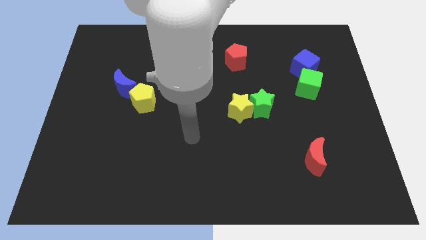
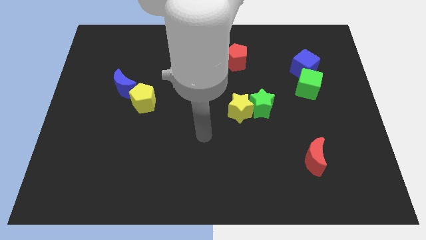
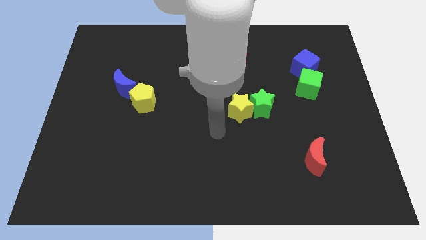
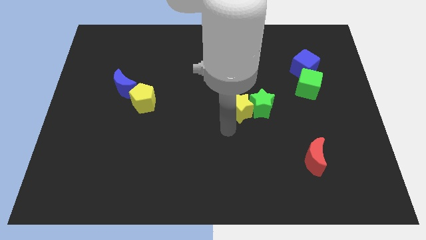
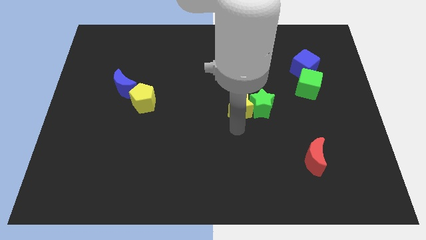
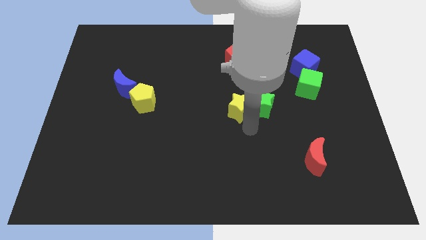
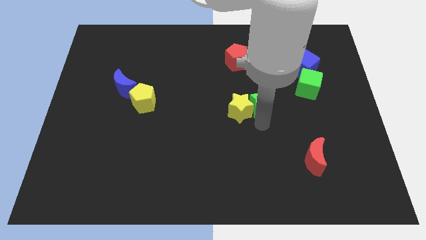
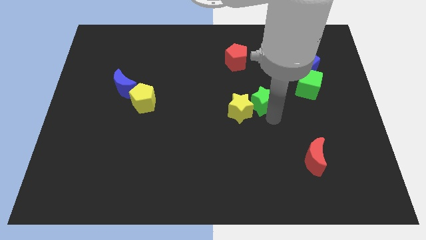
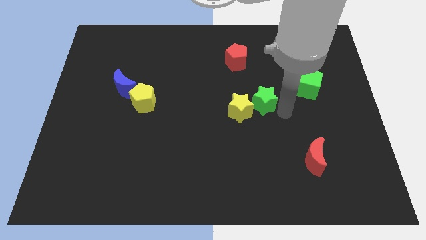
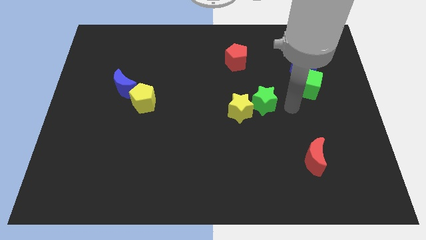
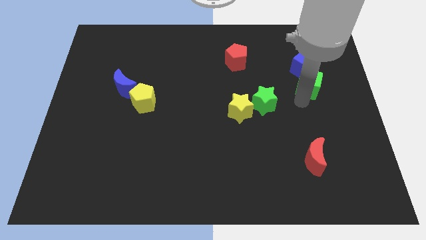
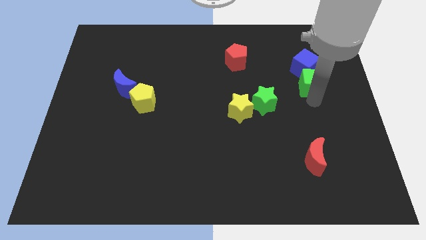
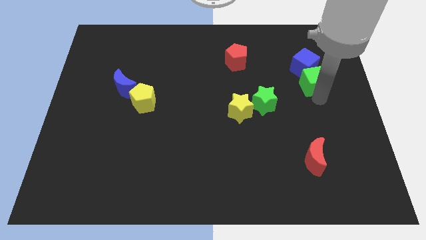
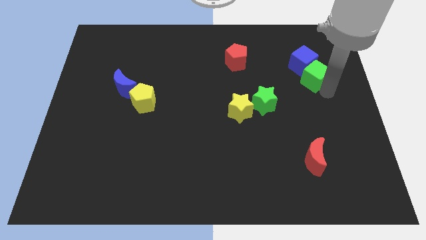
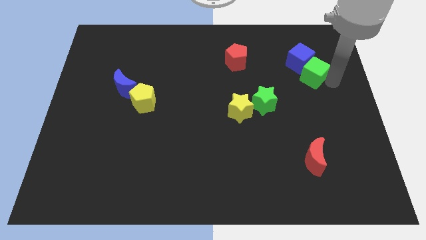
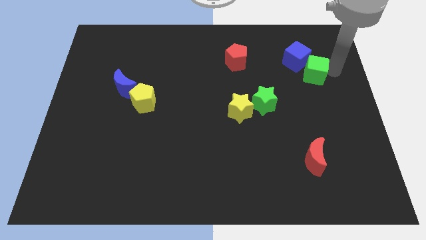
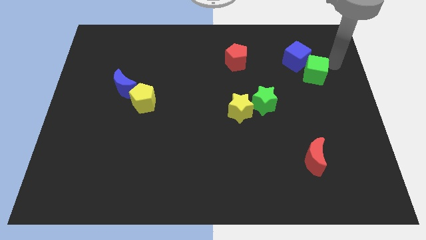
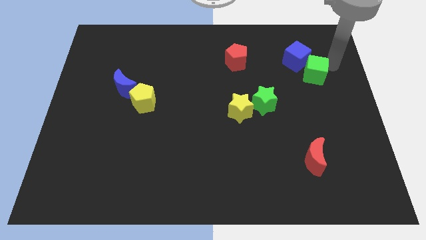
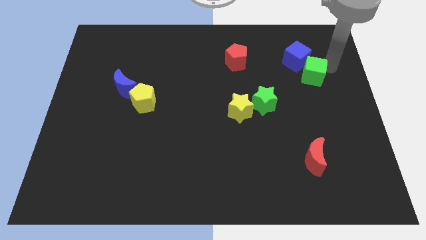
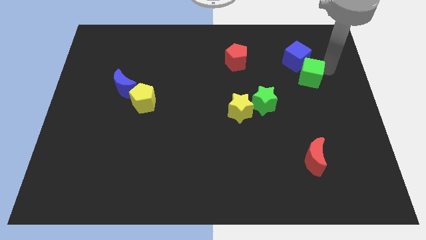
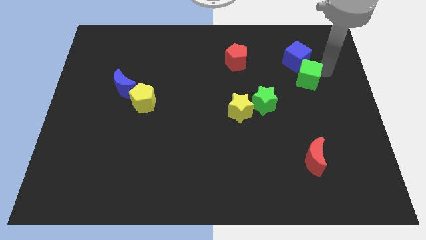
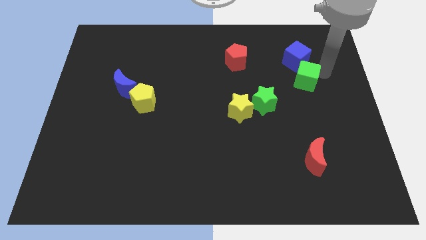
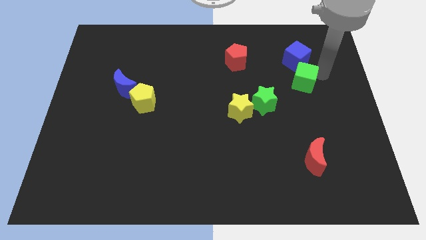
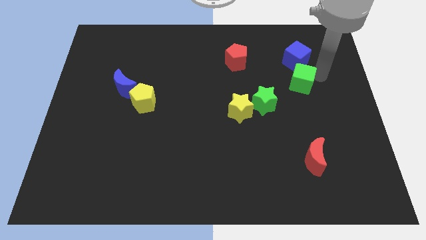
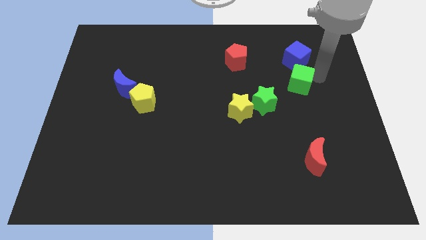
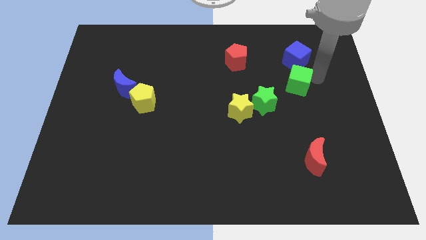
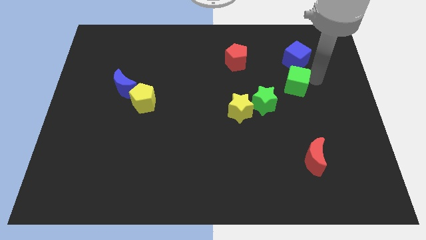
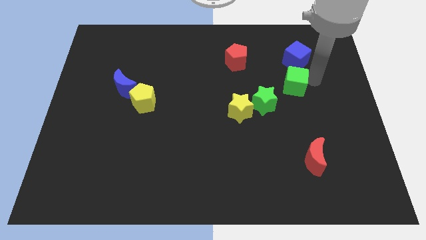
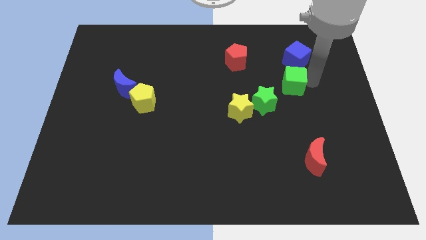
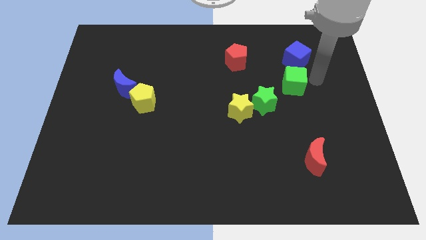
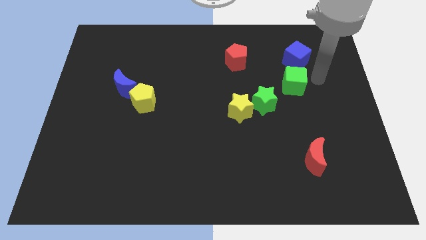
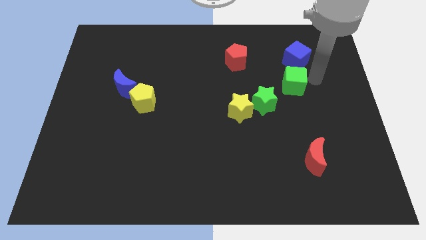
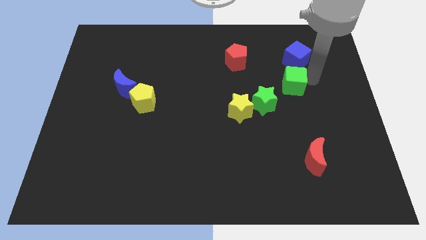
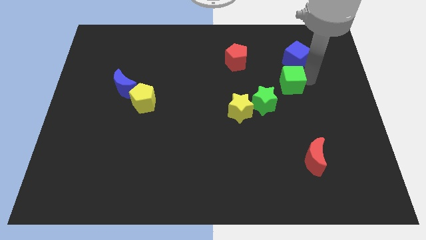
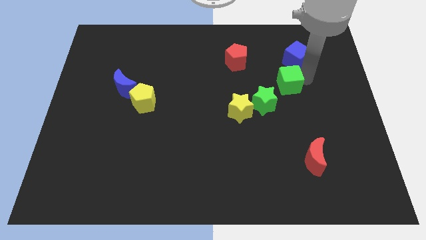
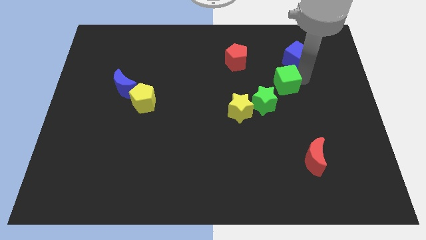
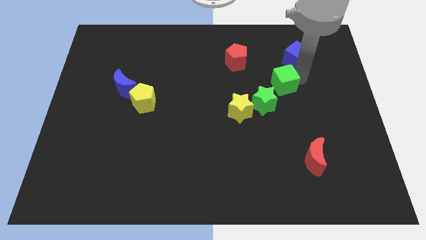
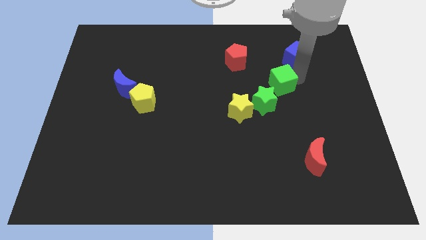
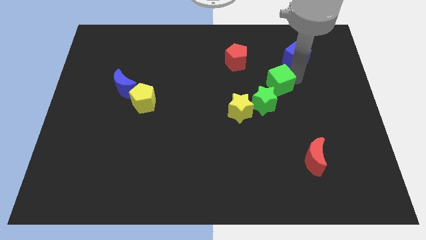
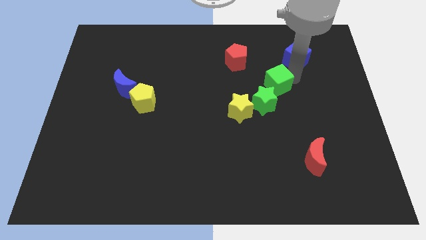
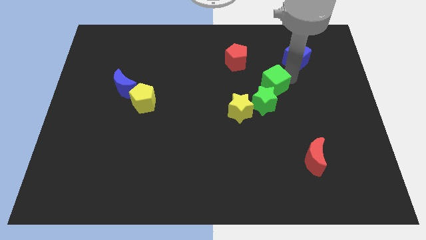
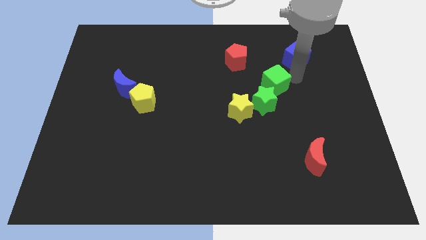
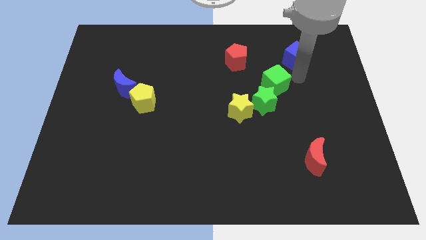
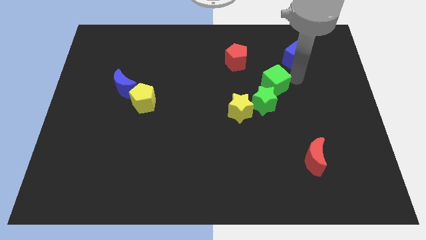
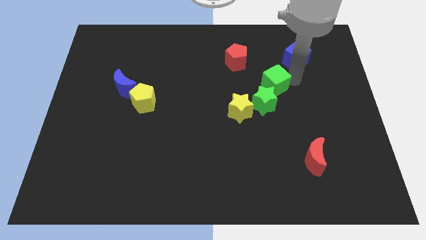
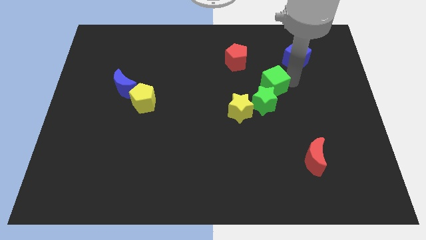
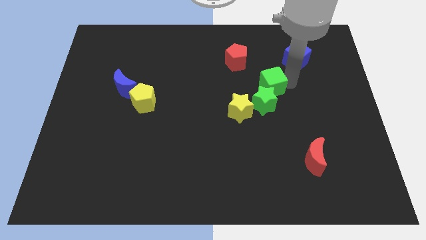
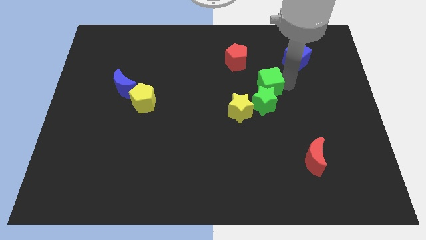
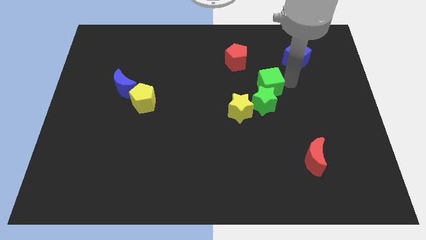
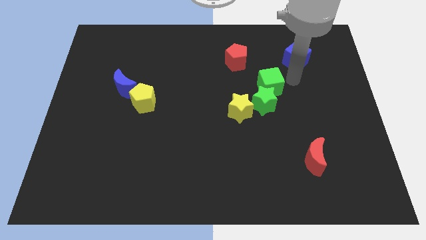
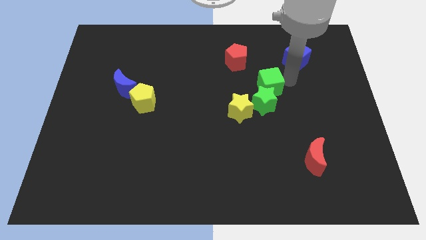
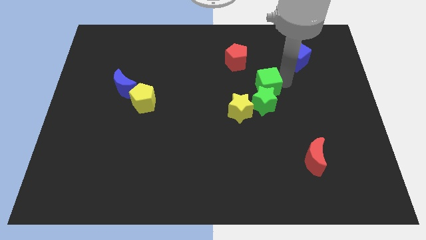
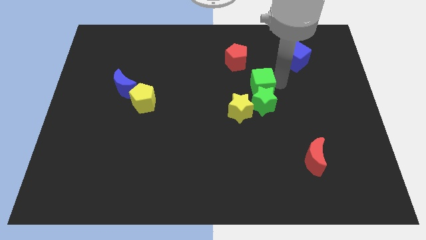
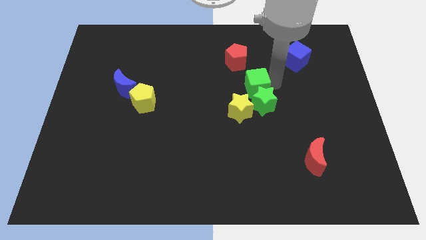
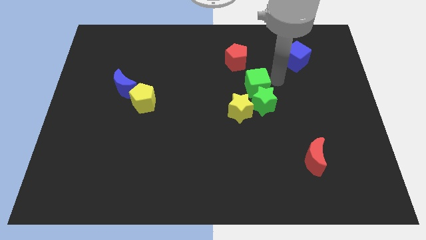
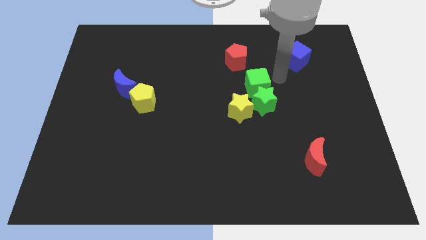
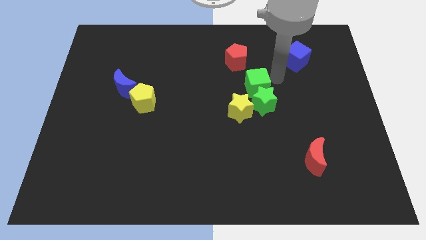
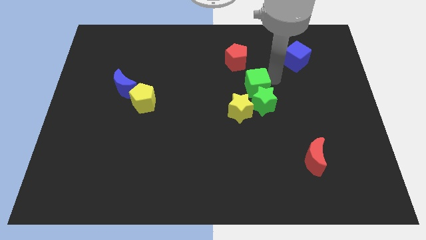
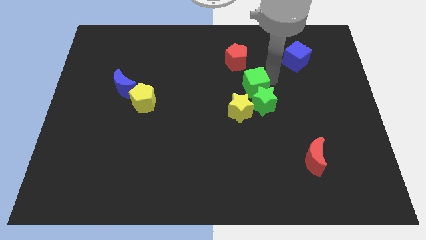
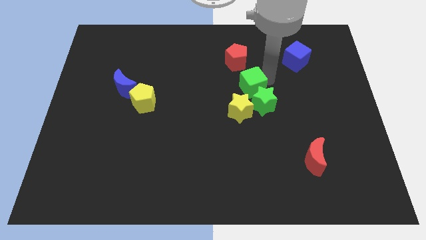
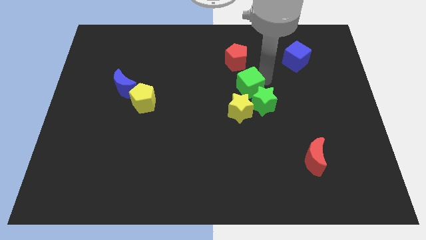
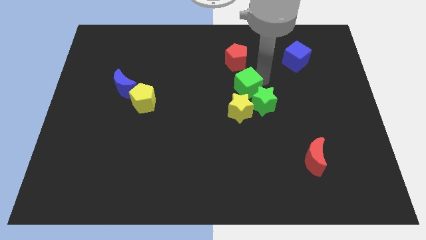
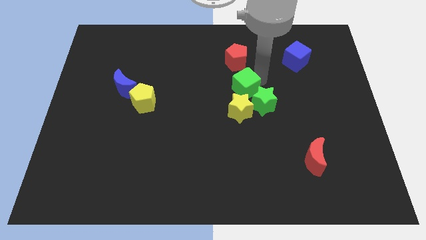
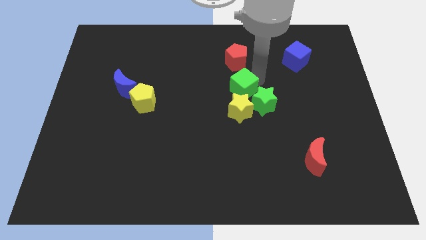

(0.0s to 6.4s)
put the green cube left of the green star

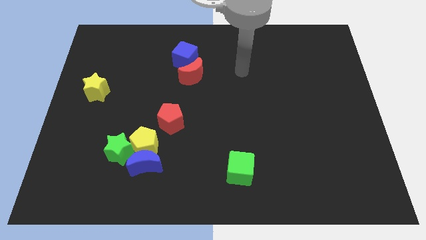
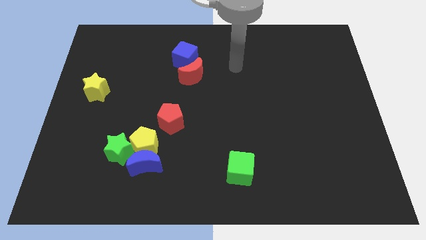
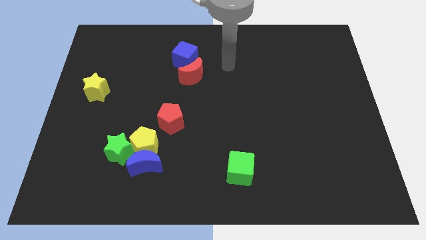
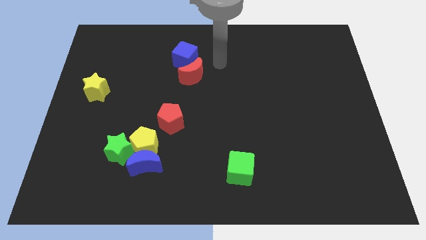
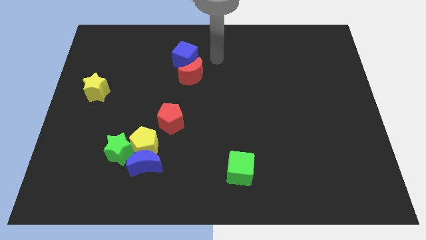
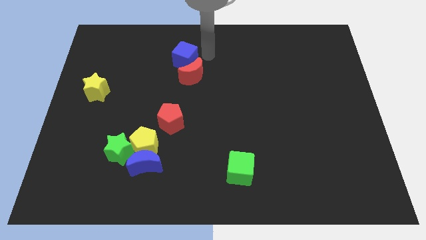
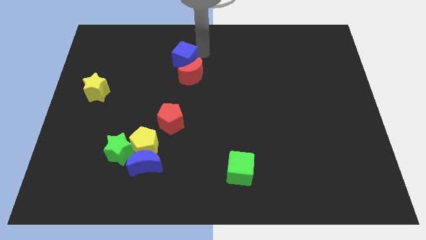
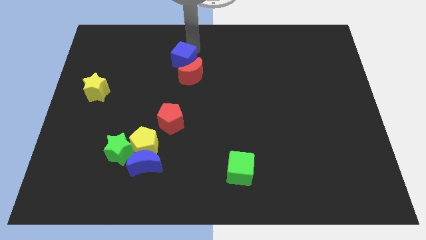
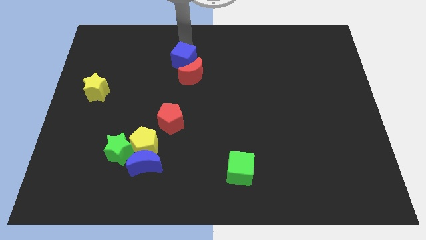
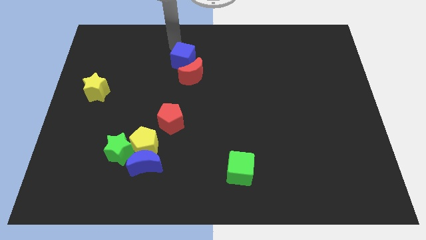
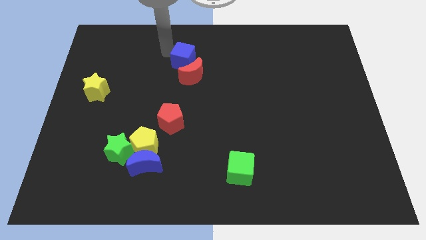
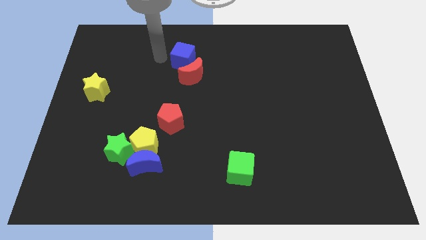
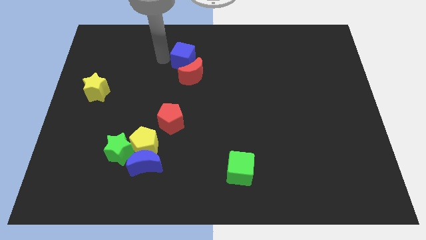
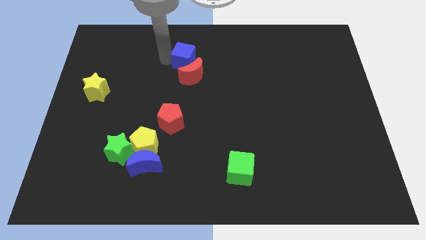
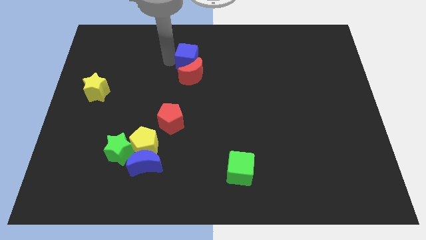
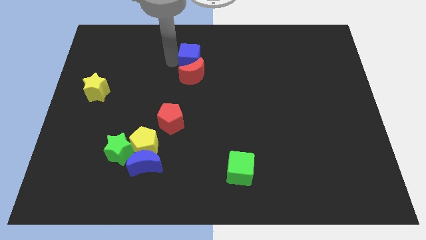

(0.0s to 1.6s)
push the blue cube to the top right side of the red moon
